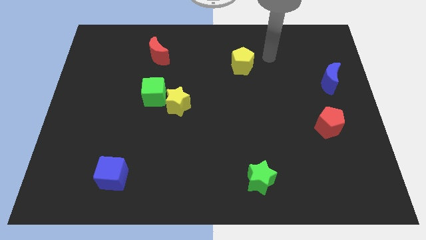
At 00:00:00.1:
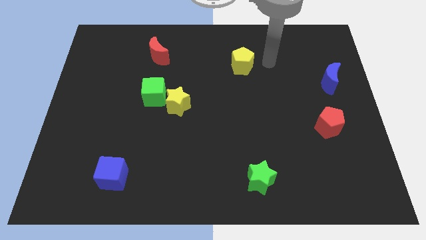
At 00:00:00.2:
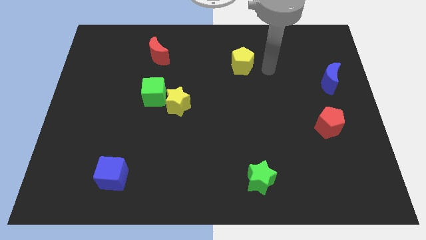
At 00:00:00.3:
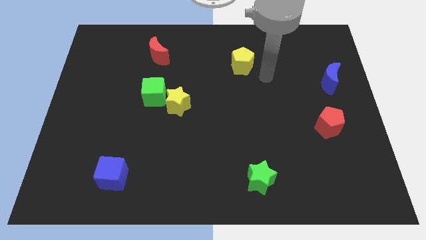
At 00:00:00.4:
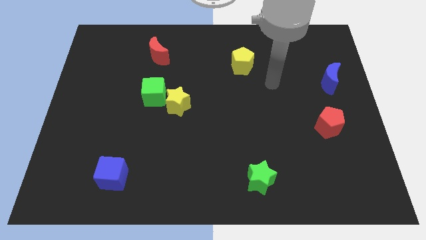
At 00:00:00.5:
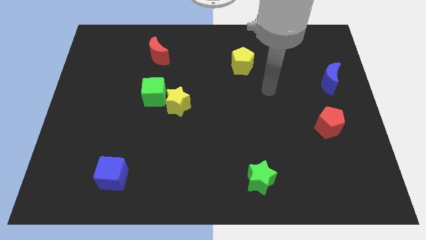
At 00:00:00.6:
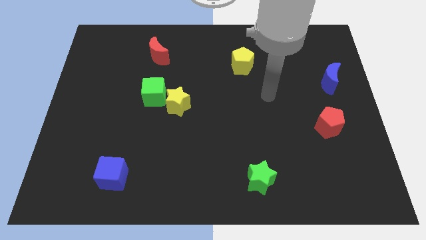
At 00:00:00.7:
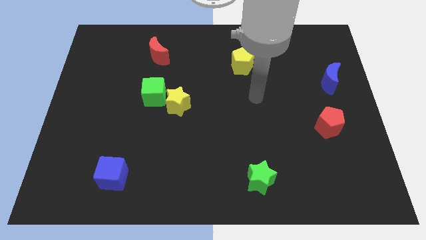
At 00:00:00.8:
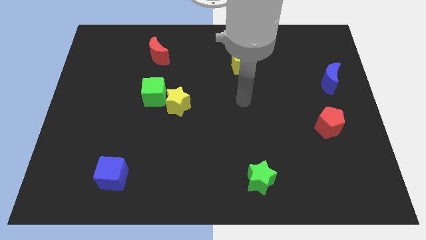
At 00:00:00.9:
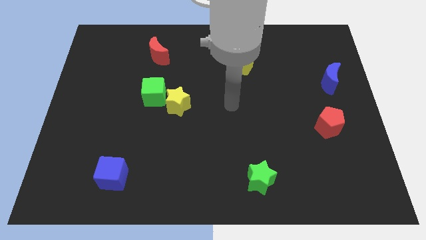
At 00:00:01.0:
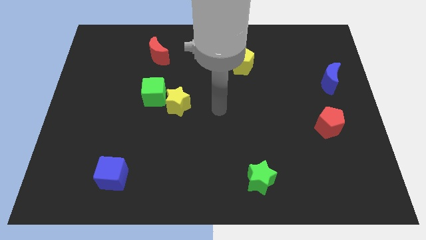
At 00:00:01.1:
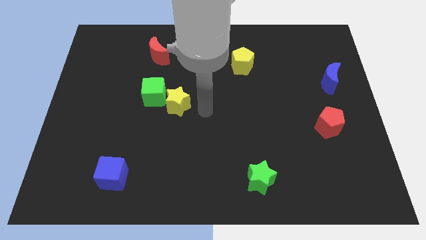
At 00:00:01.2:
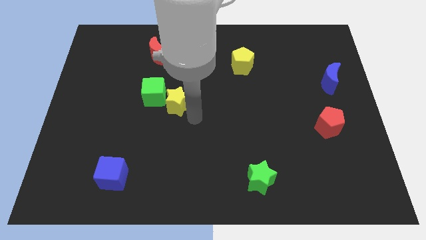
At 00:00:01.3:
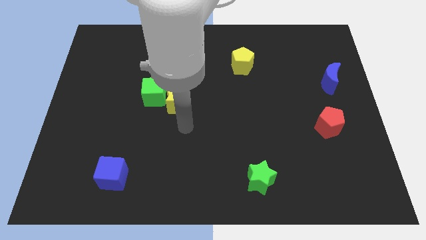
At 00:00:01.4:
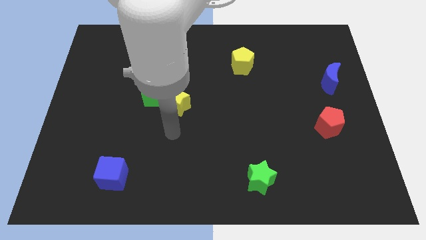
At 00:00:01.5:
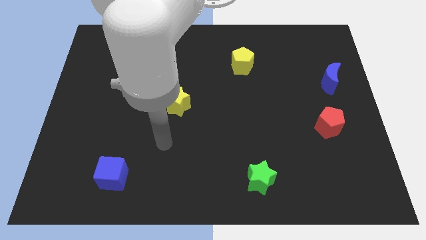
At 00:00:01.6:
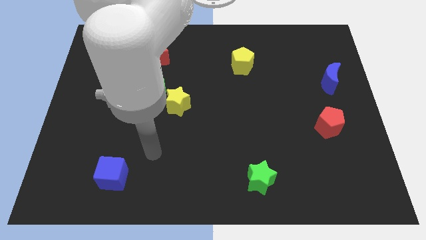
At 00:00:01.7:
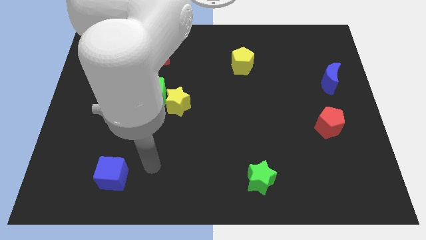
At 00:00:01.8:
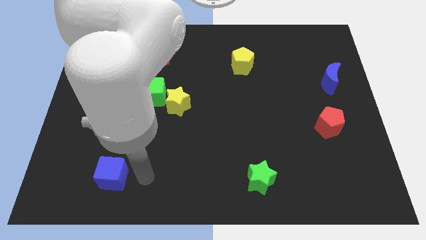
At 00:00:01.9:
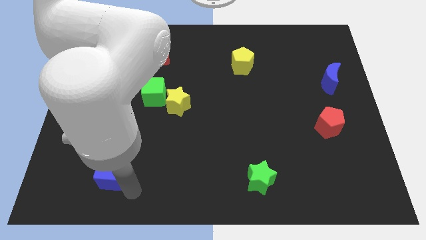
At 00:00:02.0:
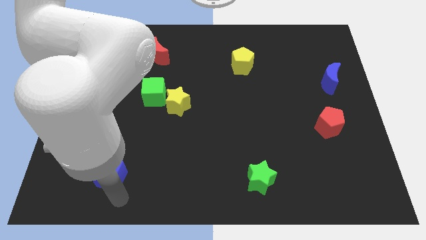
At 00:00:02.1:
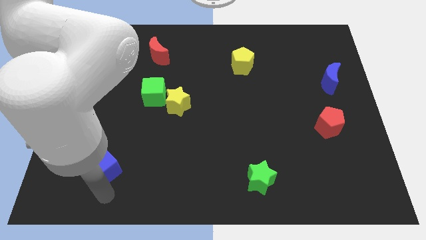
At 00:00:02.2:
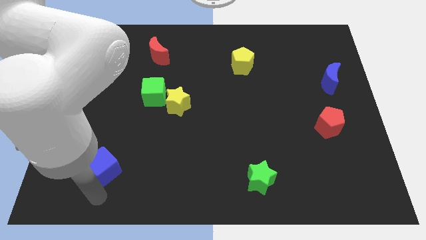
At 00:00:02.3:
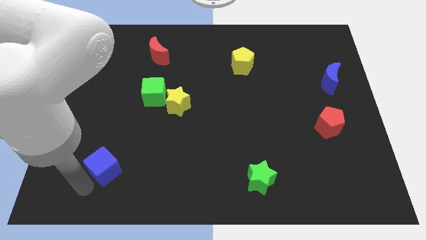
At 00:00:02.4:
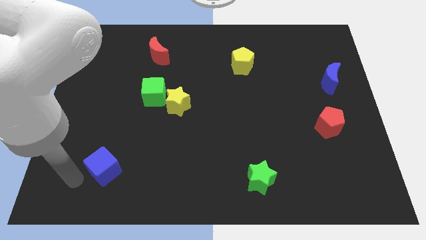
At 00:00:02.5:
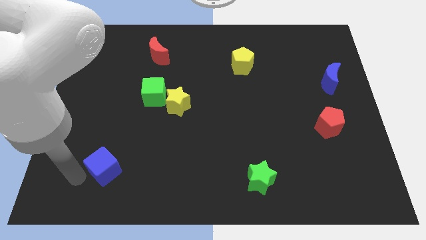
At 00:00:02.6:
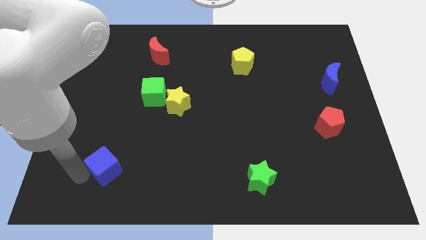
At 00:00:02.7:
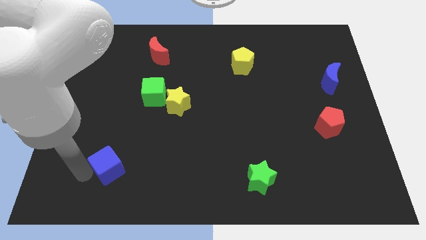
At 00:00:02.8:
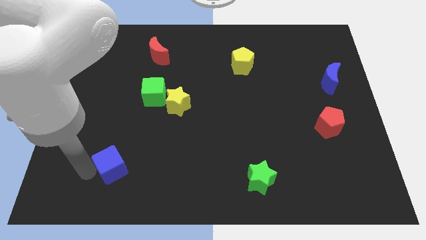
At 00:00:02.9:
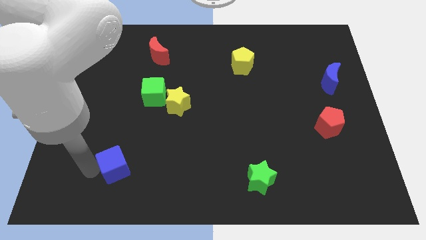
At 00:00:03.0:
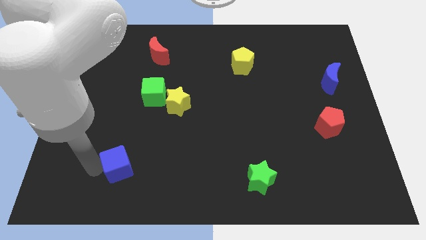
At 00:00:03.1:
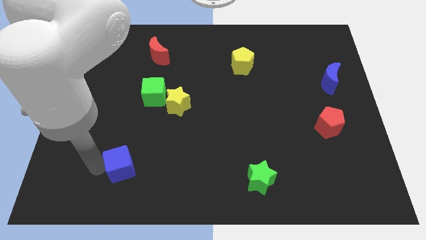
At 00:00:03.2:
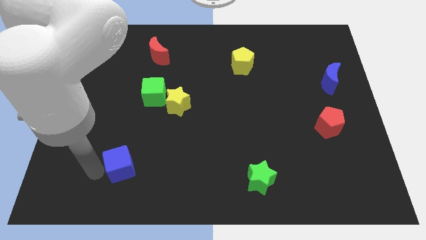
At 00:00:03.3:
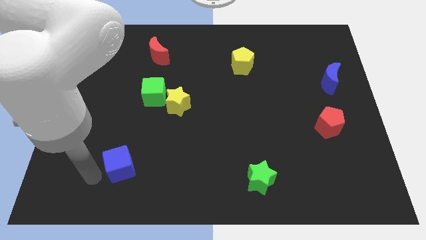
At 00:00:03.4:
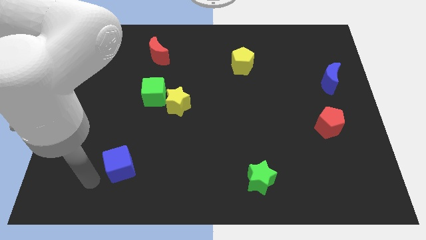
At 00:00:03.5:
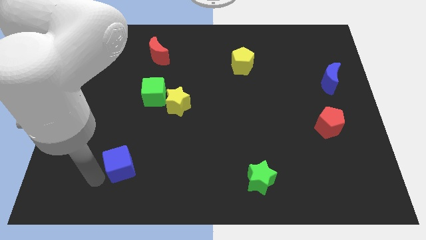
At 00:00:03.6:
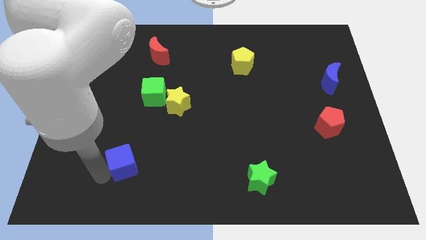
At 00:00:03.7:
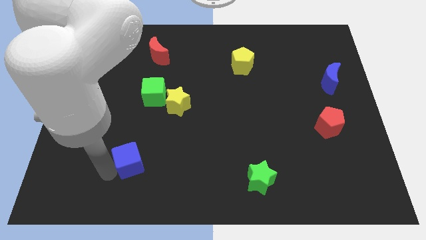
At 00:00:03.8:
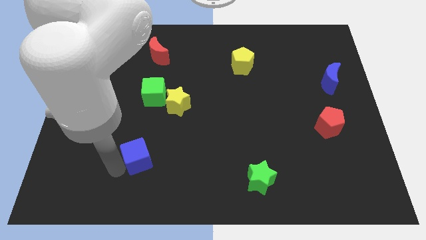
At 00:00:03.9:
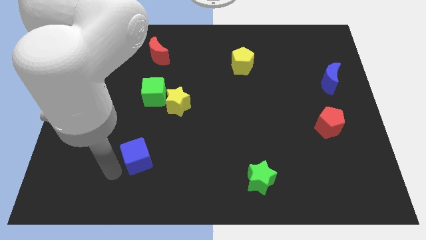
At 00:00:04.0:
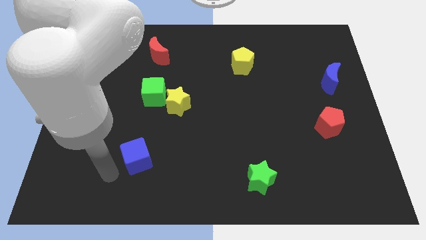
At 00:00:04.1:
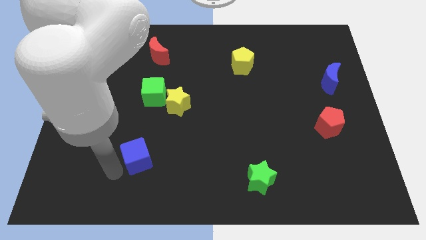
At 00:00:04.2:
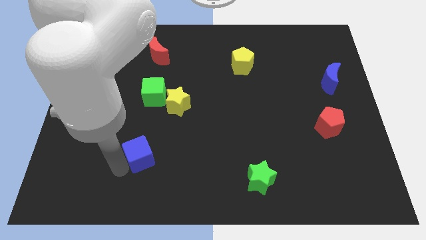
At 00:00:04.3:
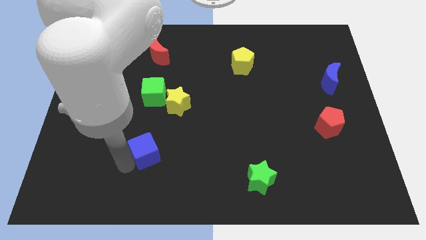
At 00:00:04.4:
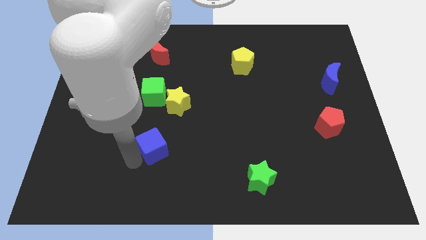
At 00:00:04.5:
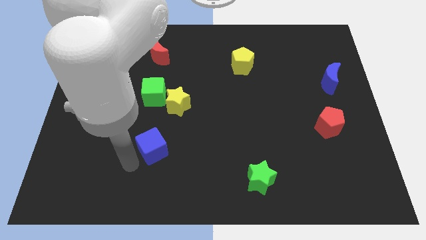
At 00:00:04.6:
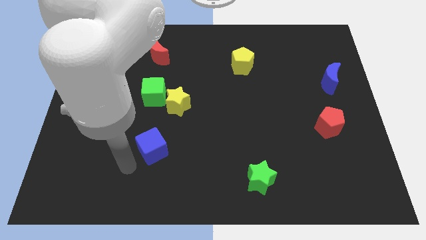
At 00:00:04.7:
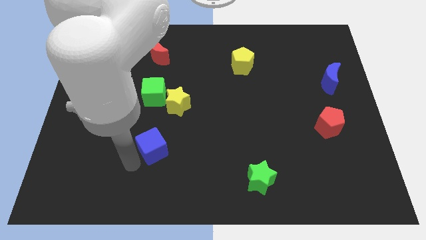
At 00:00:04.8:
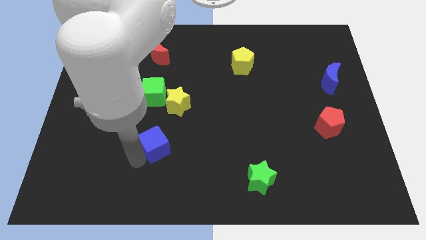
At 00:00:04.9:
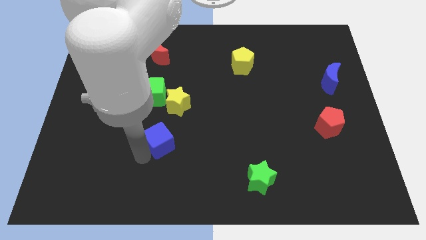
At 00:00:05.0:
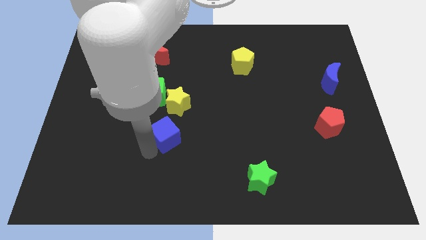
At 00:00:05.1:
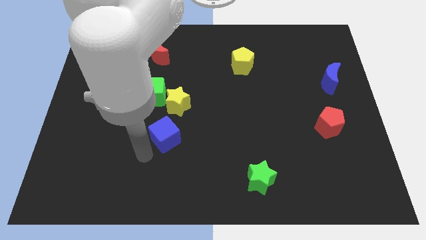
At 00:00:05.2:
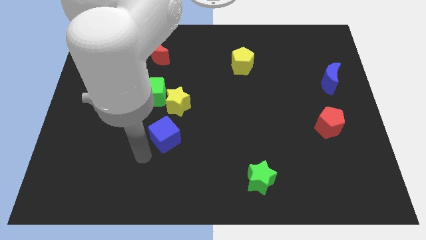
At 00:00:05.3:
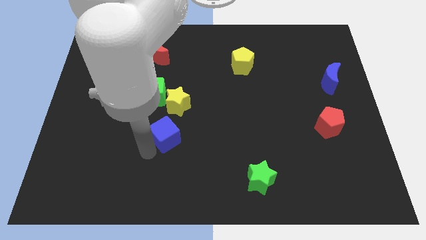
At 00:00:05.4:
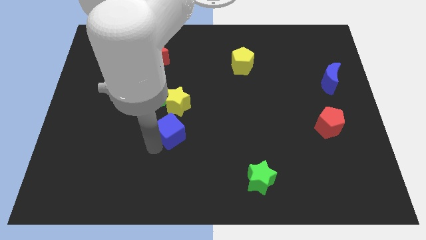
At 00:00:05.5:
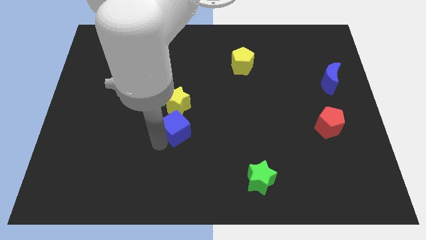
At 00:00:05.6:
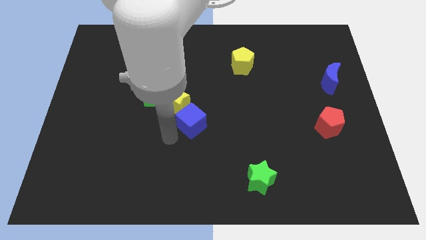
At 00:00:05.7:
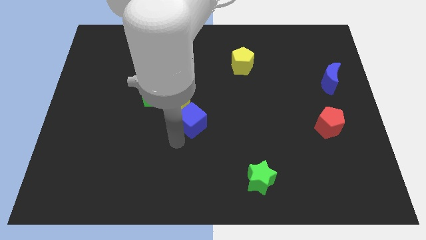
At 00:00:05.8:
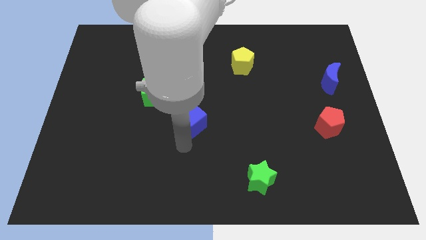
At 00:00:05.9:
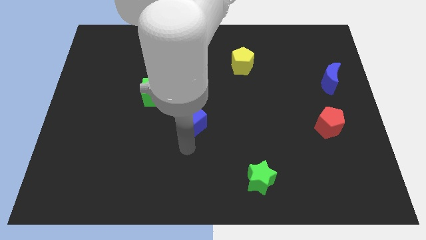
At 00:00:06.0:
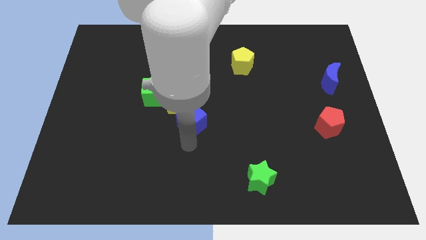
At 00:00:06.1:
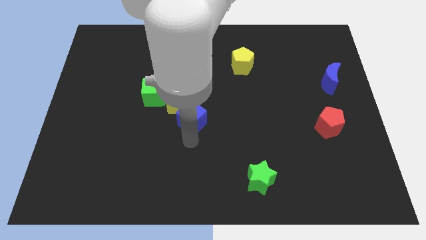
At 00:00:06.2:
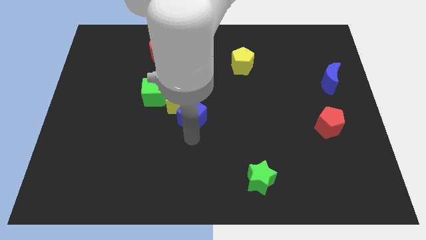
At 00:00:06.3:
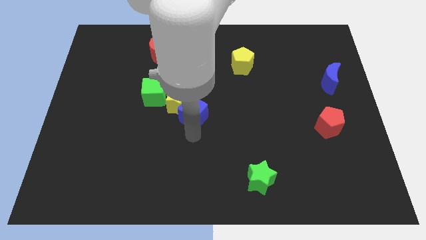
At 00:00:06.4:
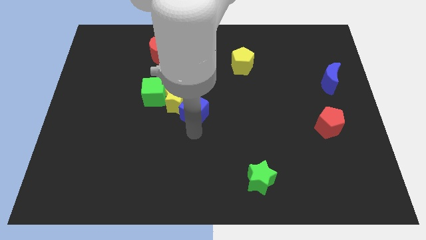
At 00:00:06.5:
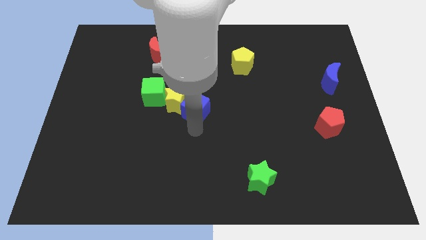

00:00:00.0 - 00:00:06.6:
slide the blue cube to the right of the green cube

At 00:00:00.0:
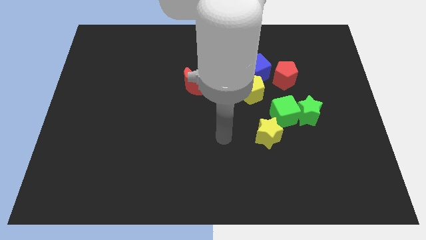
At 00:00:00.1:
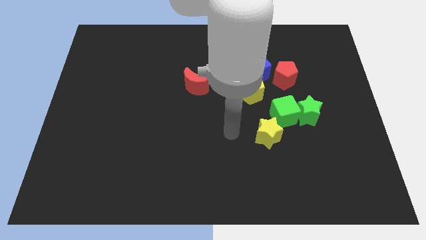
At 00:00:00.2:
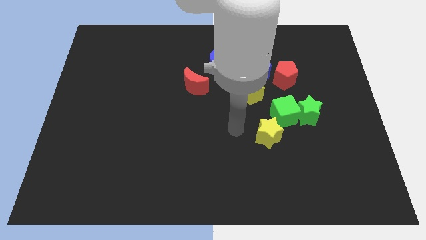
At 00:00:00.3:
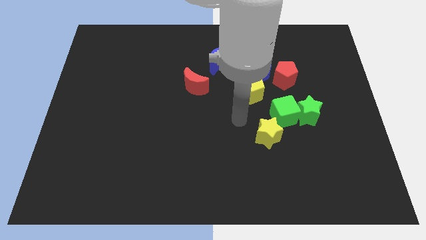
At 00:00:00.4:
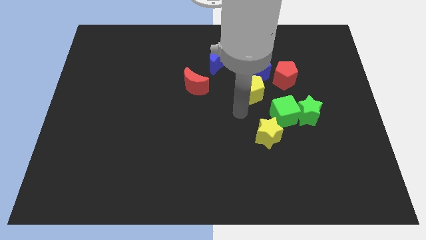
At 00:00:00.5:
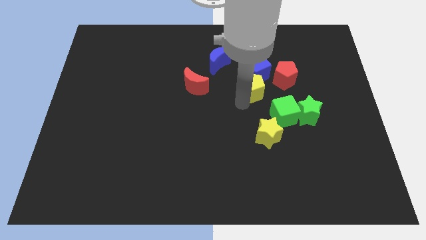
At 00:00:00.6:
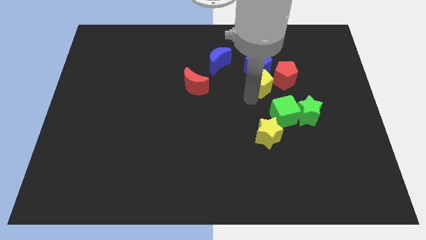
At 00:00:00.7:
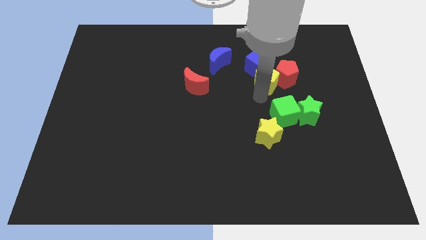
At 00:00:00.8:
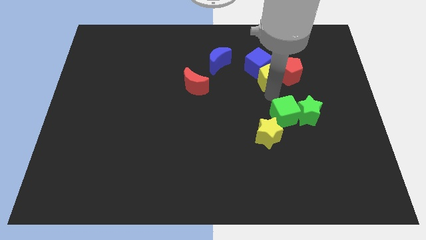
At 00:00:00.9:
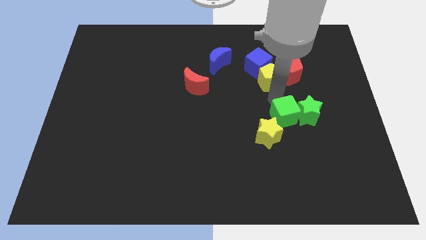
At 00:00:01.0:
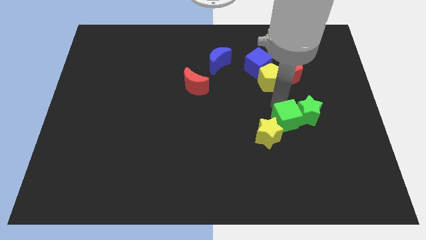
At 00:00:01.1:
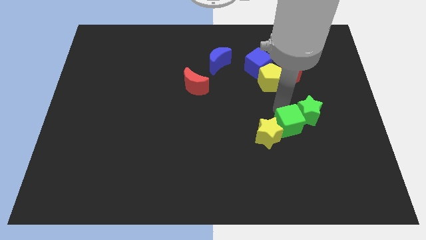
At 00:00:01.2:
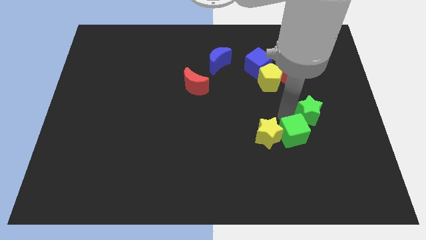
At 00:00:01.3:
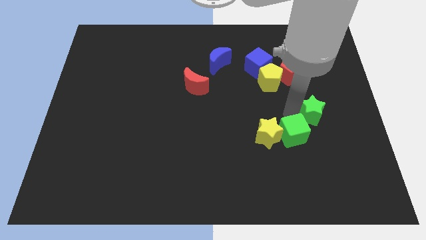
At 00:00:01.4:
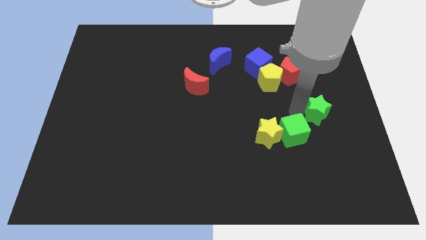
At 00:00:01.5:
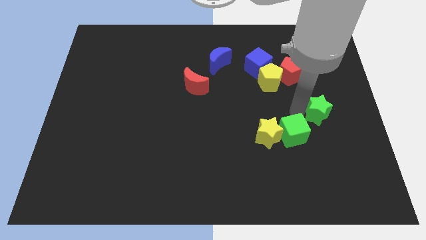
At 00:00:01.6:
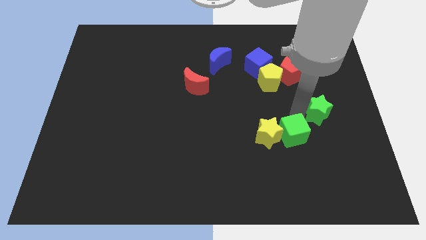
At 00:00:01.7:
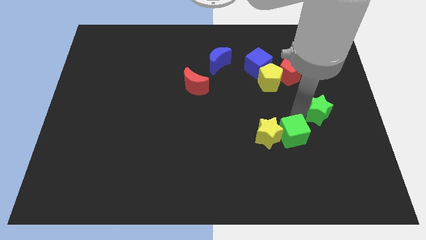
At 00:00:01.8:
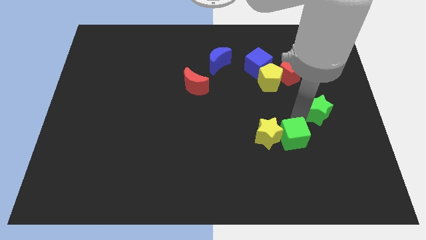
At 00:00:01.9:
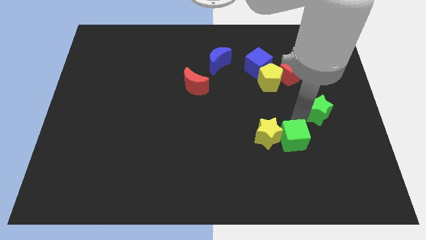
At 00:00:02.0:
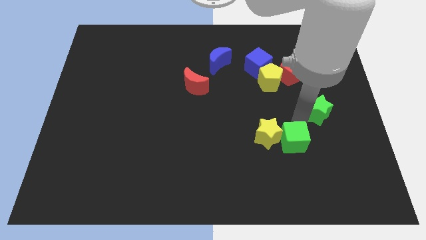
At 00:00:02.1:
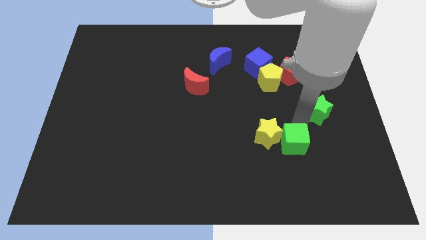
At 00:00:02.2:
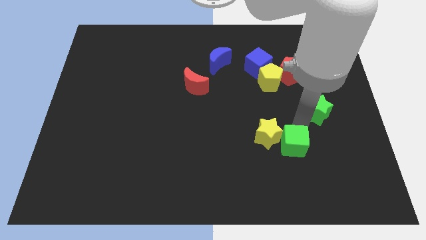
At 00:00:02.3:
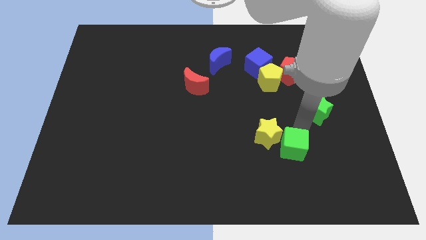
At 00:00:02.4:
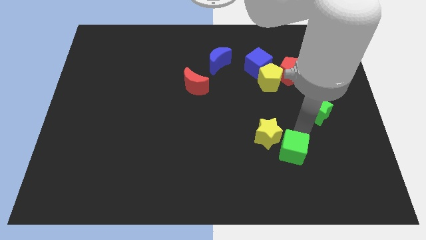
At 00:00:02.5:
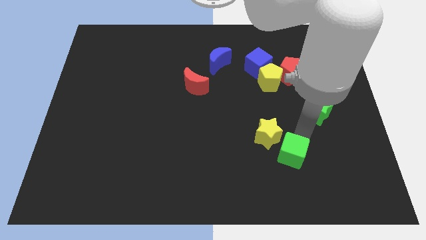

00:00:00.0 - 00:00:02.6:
push the green cube to the bottom of the yellow star
